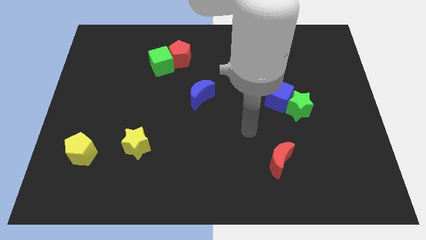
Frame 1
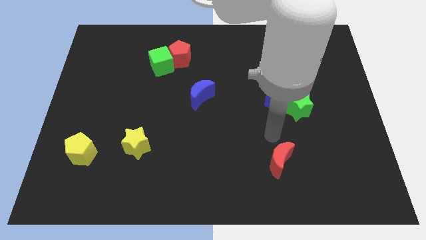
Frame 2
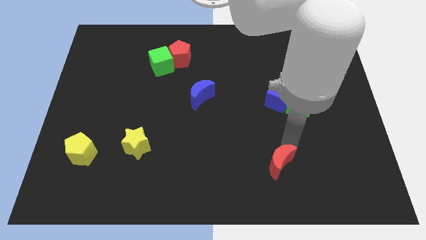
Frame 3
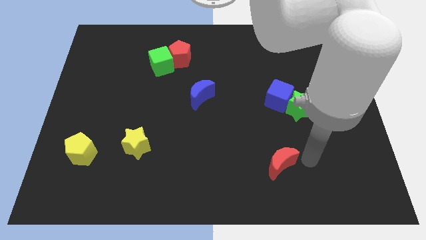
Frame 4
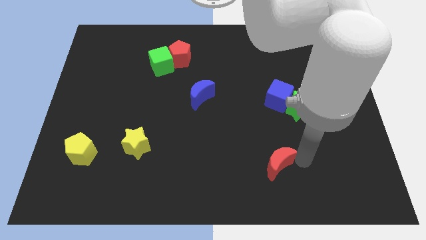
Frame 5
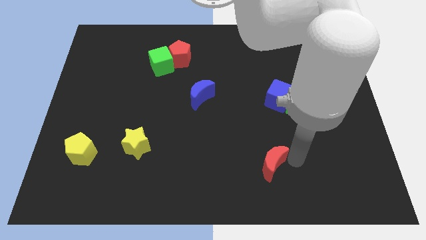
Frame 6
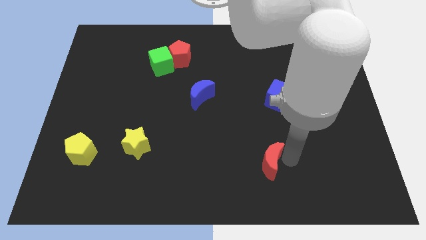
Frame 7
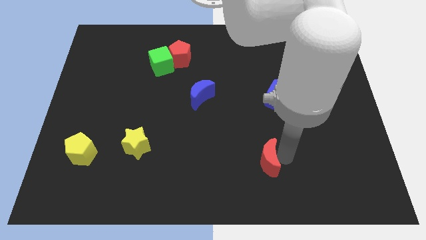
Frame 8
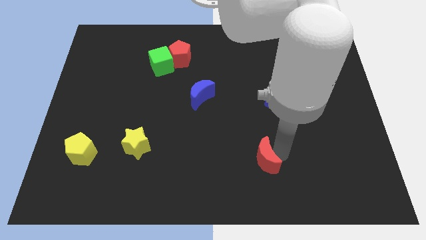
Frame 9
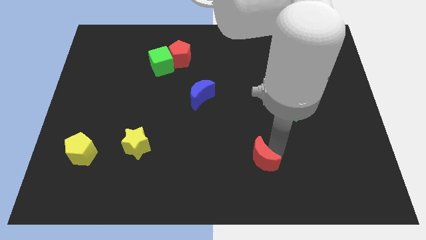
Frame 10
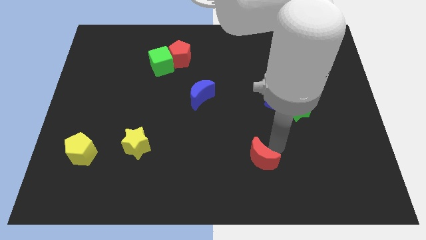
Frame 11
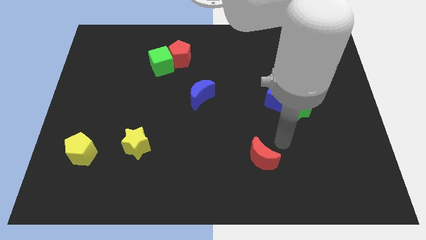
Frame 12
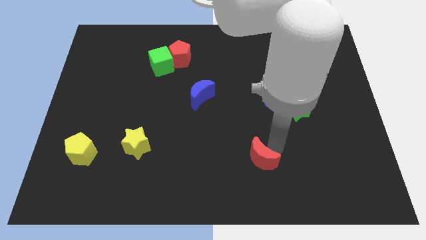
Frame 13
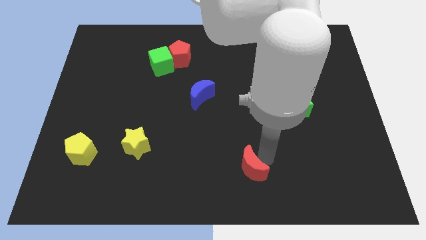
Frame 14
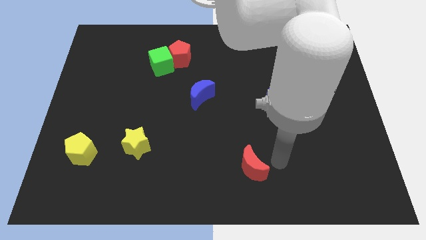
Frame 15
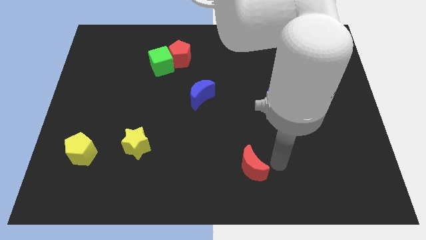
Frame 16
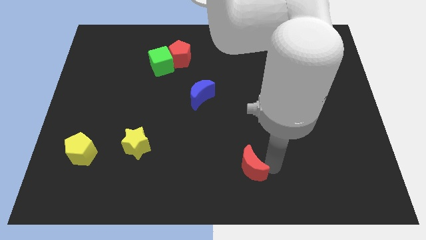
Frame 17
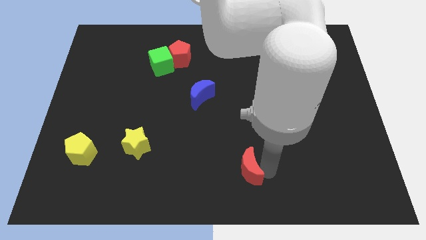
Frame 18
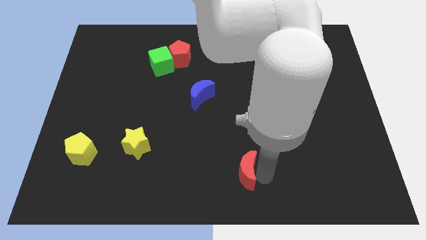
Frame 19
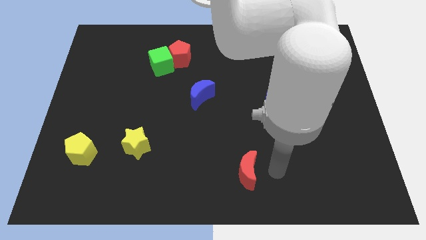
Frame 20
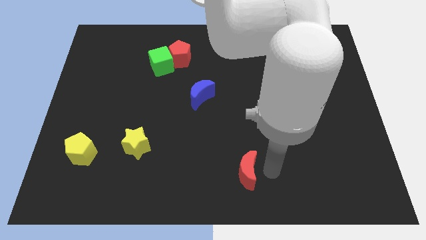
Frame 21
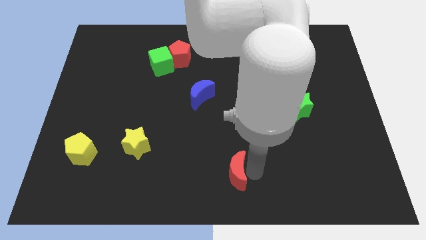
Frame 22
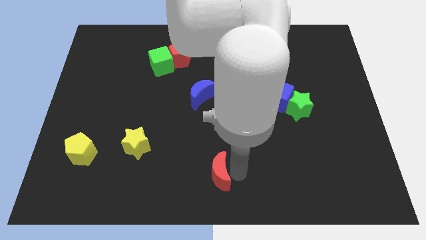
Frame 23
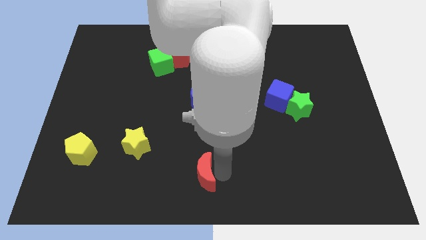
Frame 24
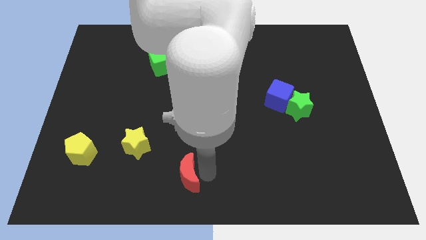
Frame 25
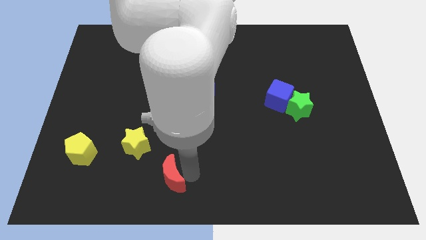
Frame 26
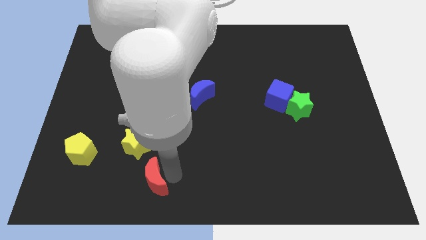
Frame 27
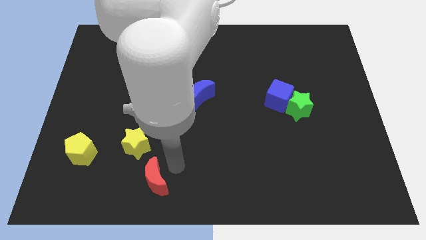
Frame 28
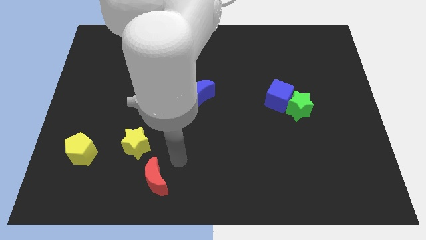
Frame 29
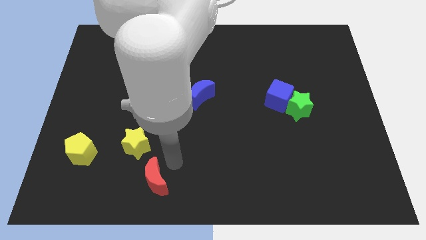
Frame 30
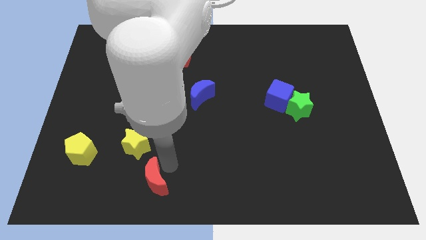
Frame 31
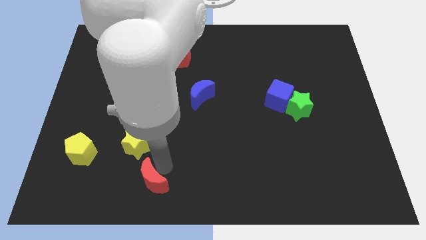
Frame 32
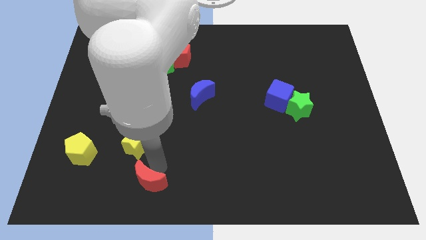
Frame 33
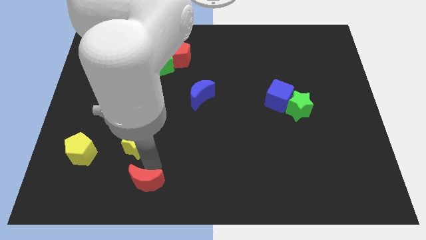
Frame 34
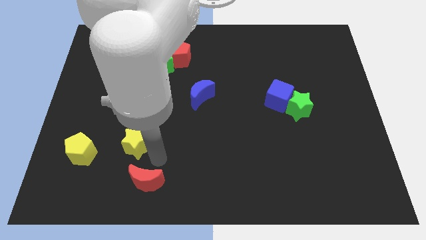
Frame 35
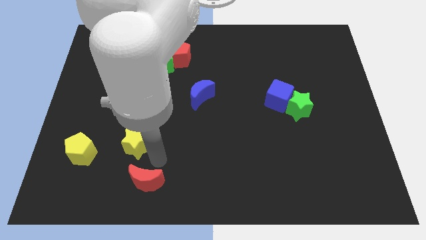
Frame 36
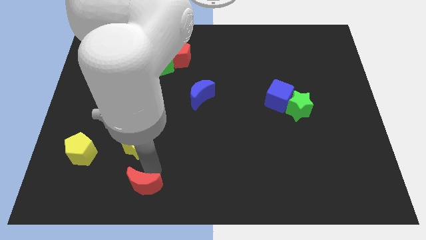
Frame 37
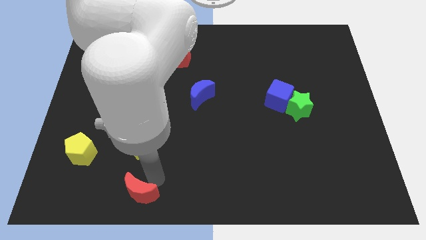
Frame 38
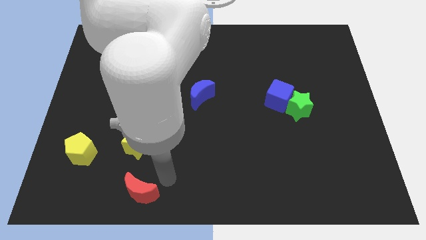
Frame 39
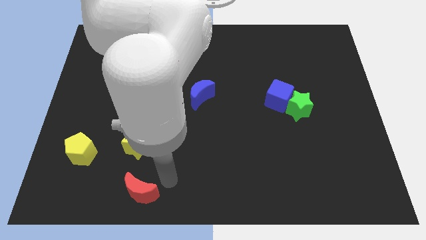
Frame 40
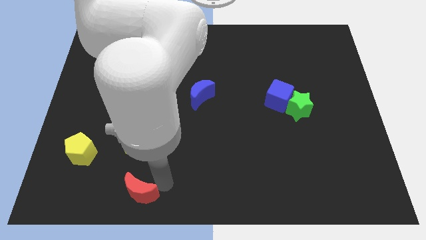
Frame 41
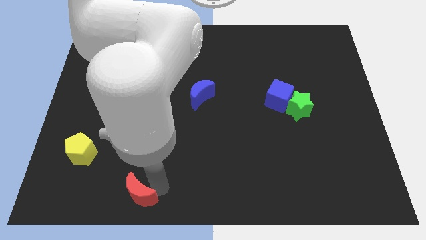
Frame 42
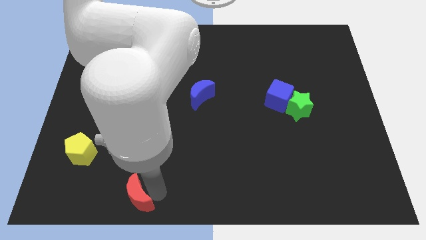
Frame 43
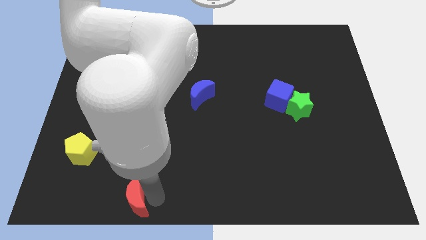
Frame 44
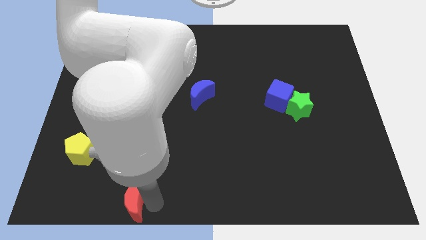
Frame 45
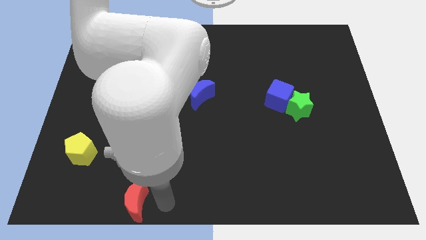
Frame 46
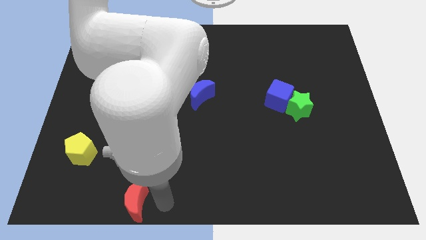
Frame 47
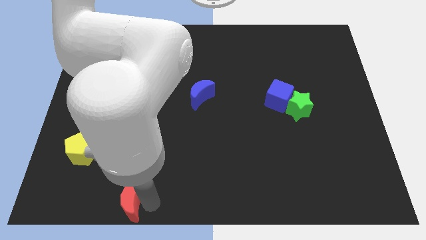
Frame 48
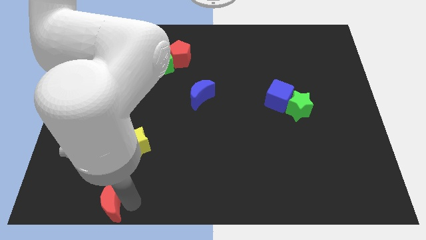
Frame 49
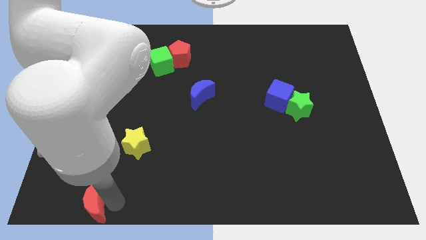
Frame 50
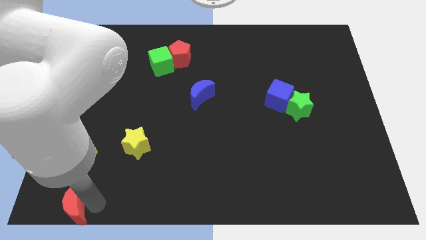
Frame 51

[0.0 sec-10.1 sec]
put the red moon to the bottom left

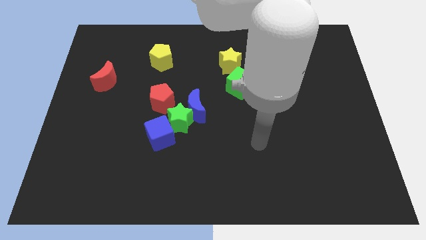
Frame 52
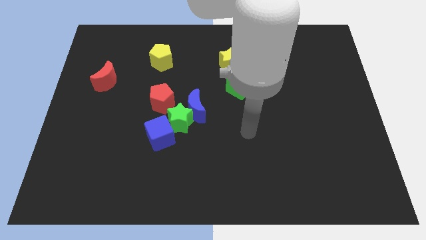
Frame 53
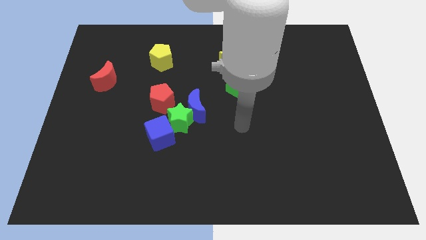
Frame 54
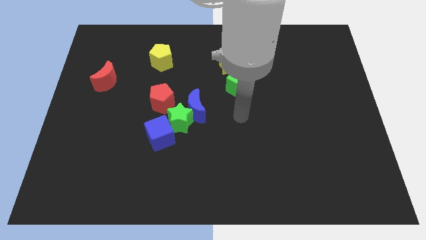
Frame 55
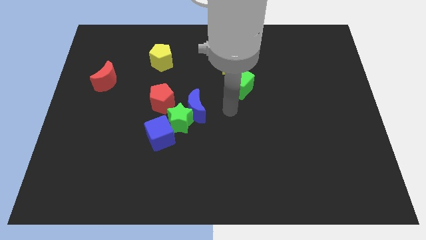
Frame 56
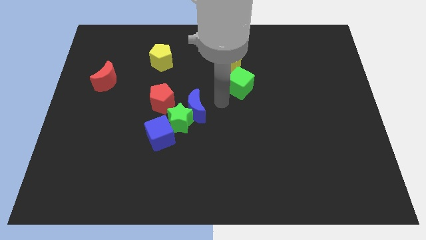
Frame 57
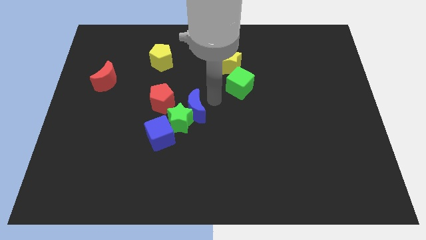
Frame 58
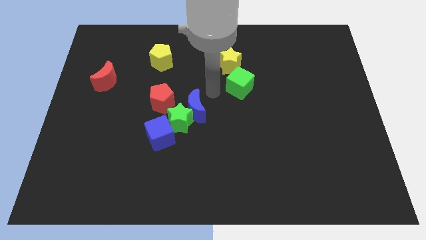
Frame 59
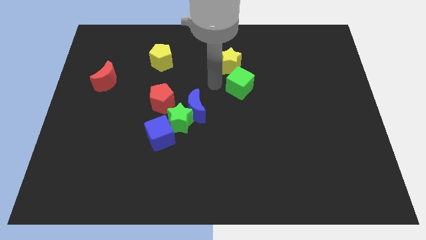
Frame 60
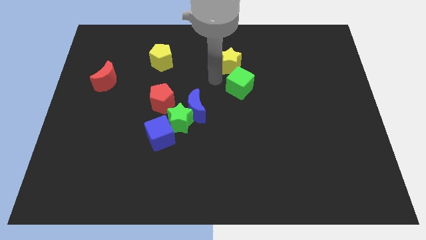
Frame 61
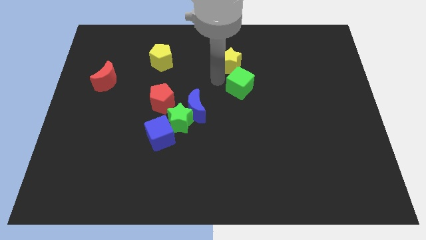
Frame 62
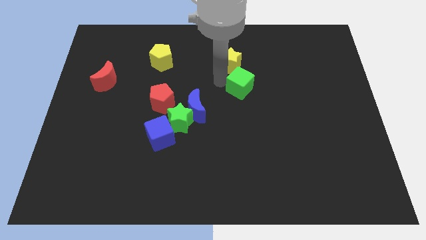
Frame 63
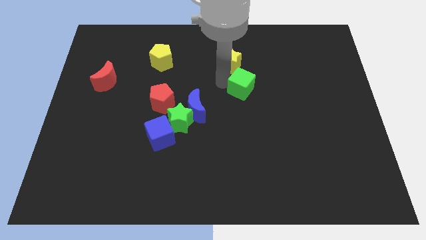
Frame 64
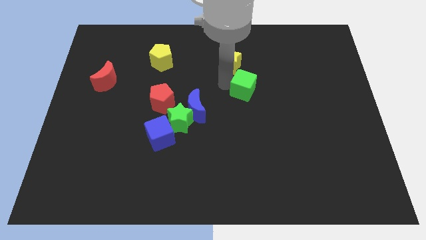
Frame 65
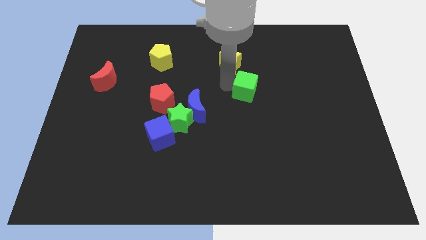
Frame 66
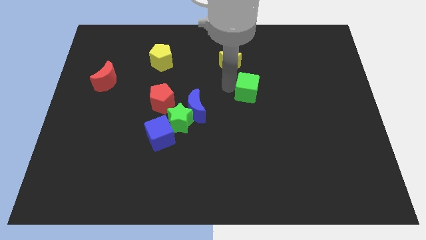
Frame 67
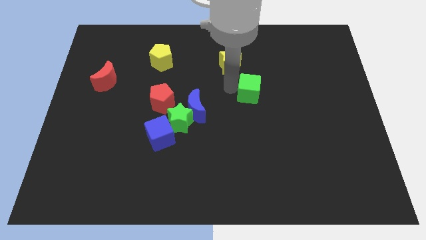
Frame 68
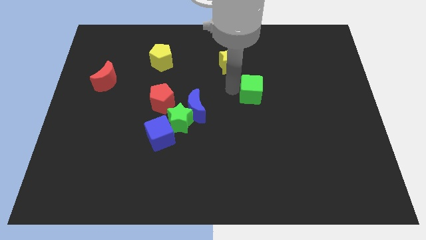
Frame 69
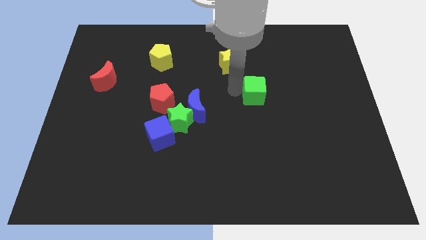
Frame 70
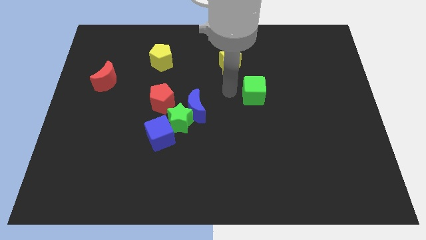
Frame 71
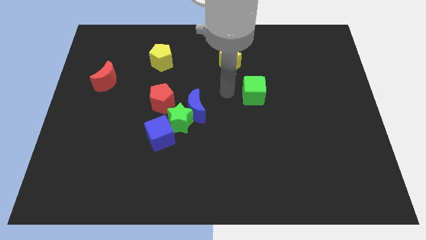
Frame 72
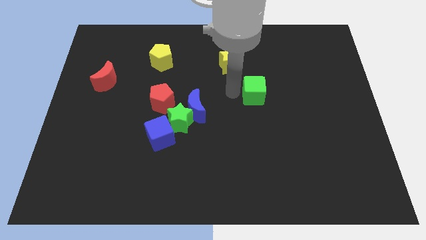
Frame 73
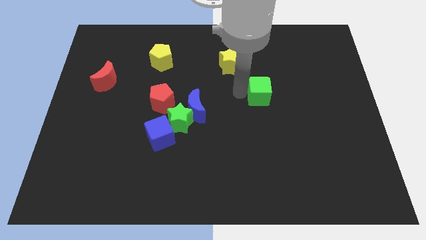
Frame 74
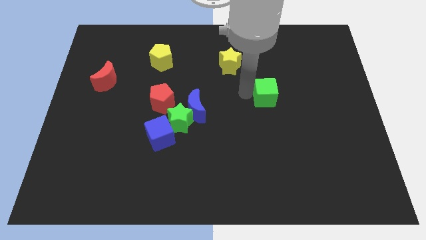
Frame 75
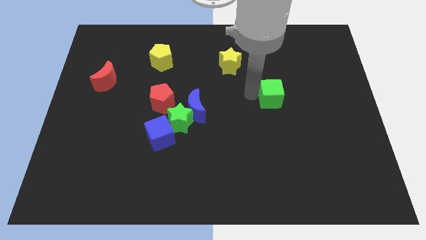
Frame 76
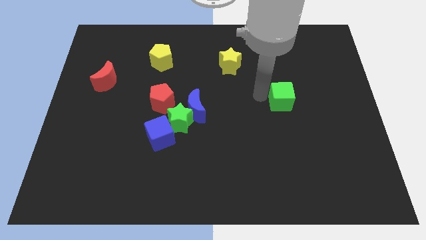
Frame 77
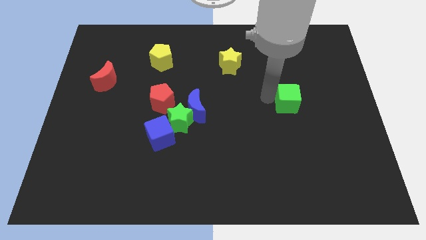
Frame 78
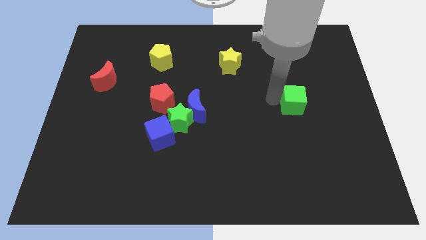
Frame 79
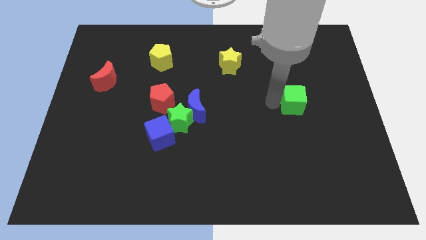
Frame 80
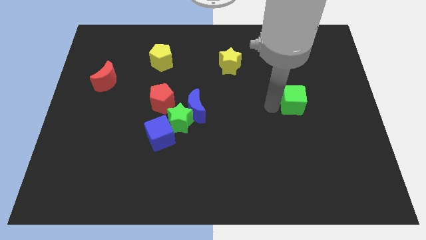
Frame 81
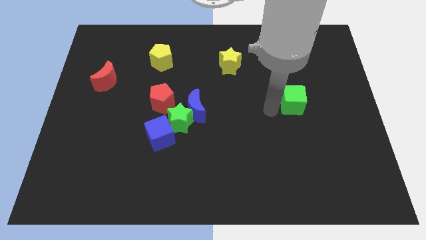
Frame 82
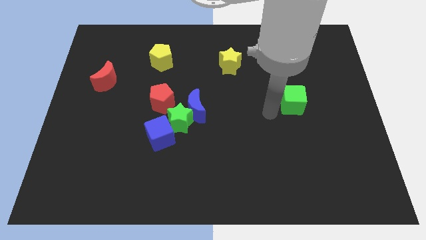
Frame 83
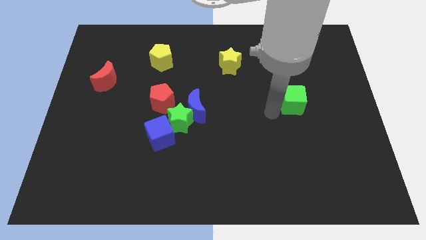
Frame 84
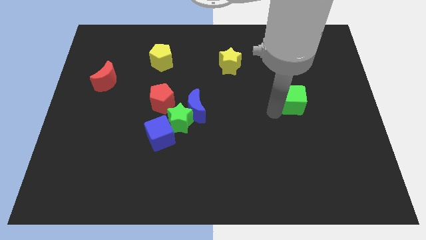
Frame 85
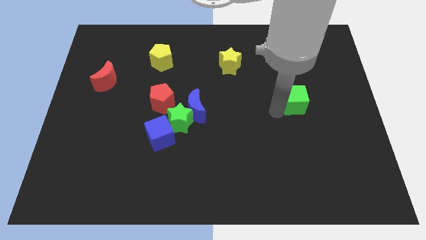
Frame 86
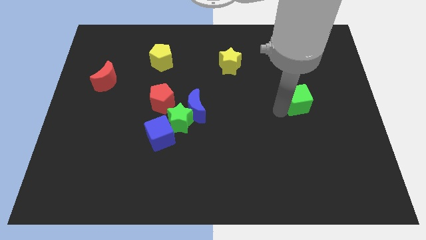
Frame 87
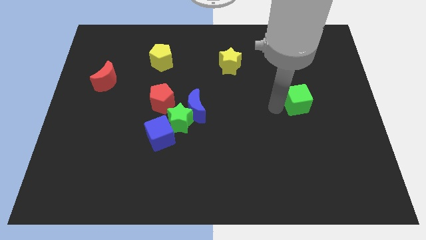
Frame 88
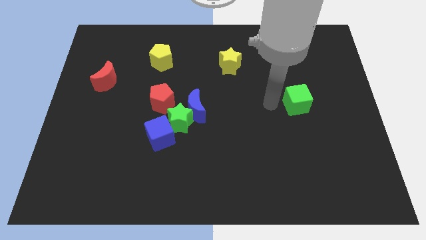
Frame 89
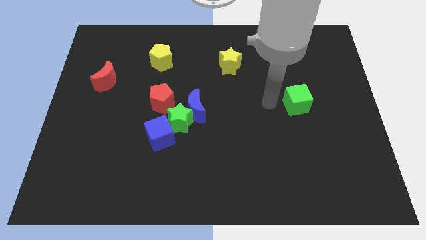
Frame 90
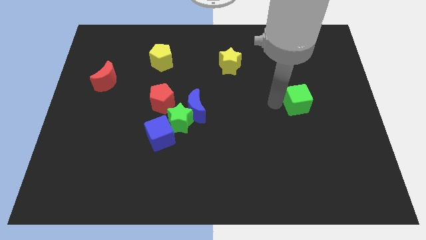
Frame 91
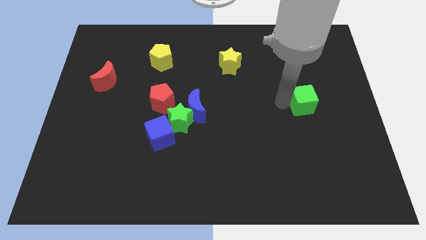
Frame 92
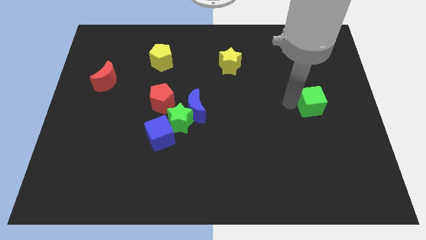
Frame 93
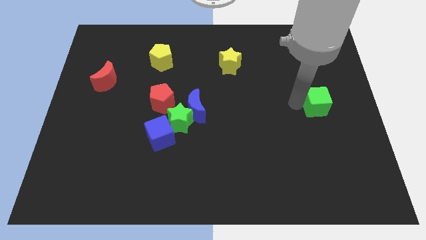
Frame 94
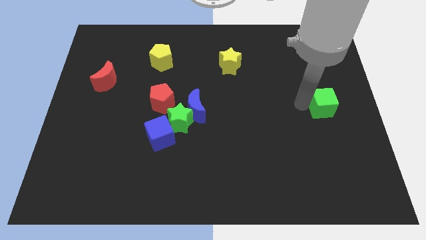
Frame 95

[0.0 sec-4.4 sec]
slide the green cube to the right side of the board
